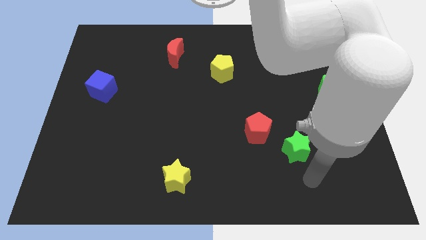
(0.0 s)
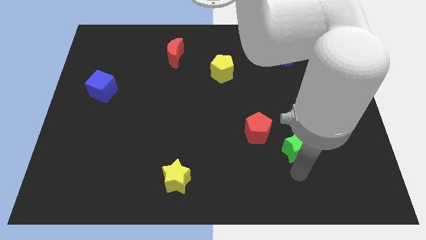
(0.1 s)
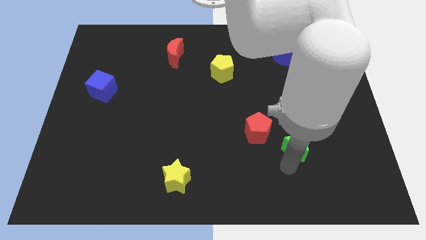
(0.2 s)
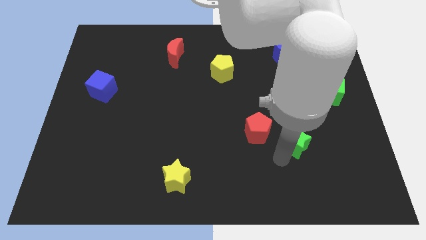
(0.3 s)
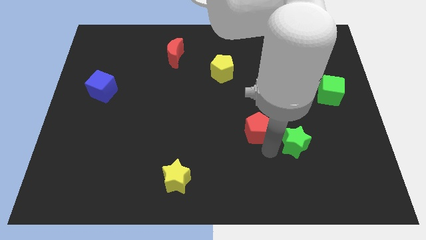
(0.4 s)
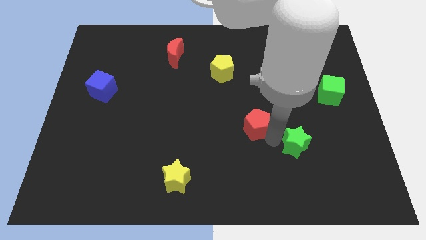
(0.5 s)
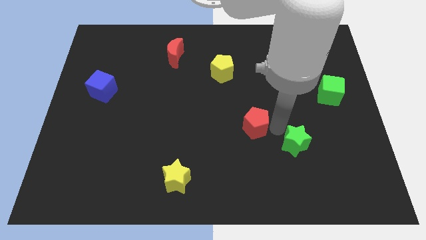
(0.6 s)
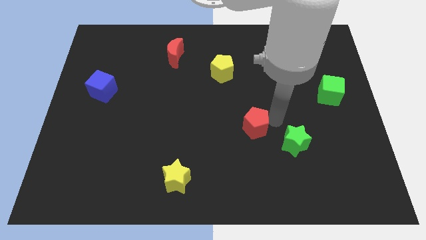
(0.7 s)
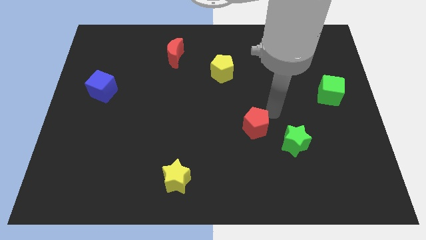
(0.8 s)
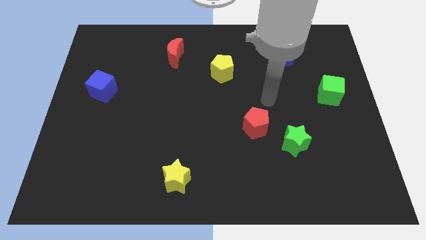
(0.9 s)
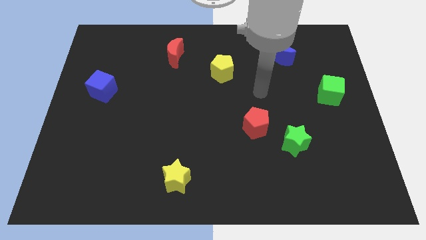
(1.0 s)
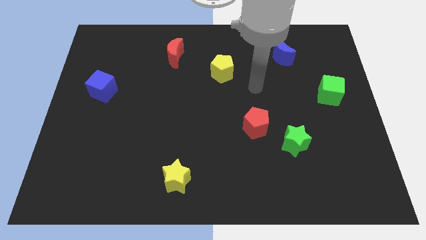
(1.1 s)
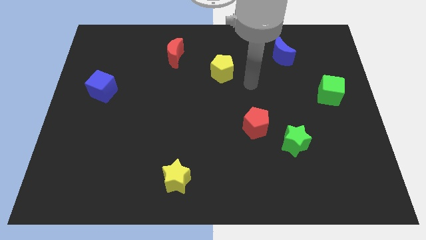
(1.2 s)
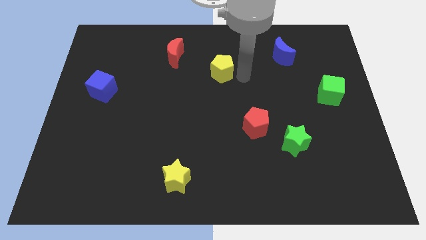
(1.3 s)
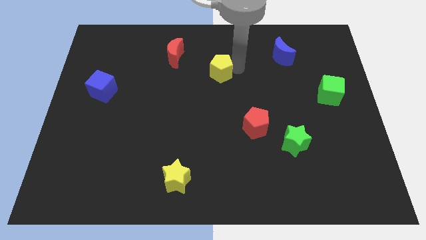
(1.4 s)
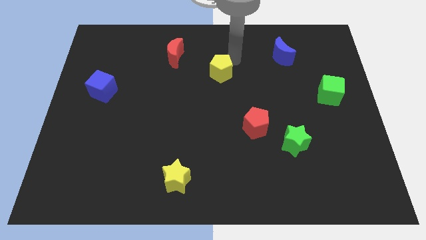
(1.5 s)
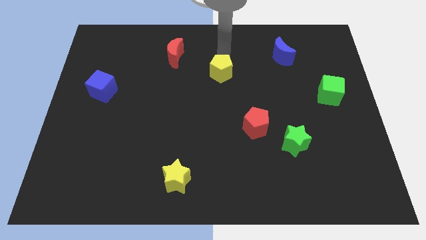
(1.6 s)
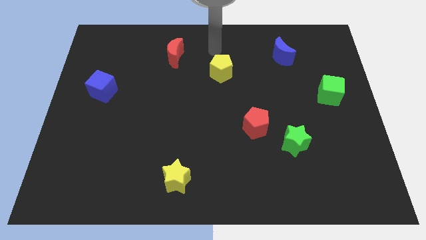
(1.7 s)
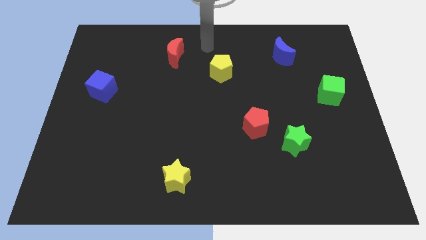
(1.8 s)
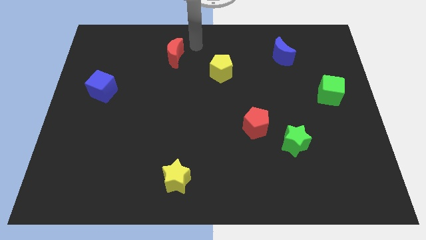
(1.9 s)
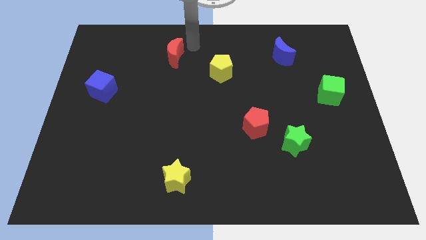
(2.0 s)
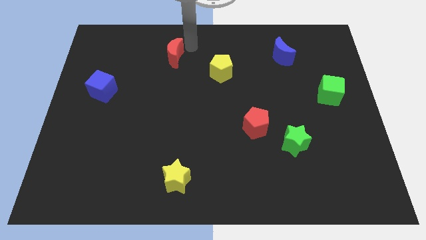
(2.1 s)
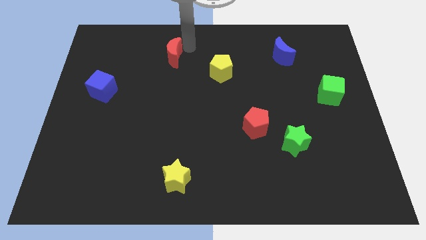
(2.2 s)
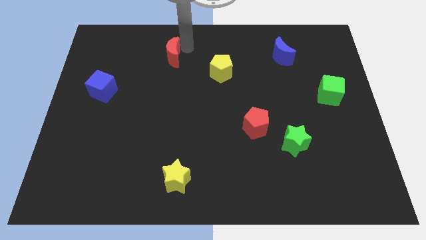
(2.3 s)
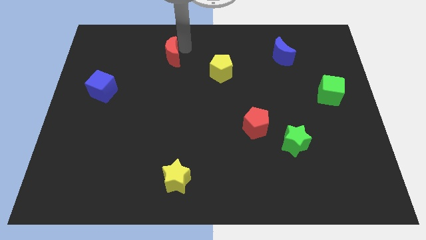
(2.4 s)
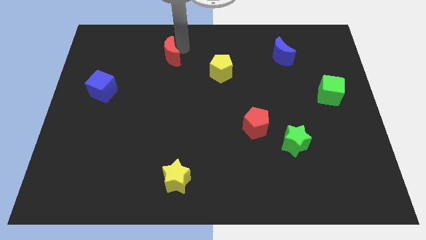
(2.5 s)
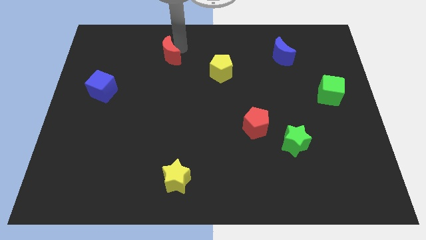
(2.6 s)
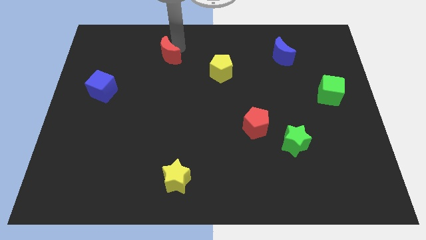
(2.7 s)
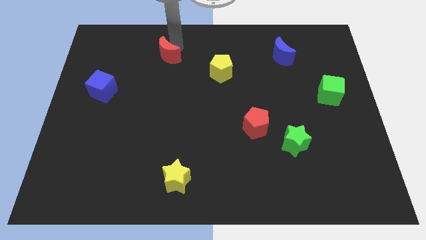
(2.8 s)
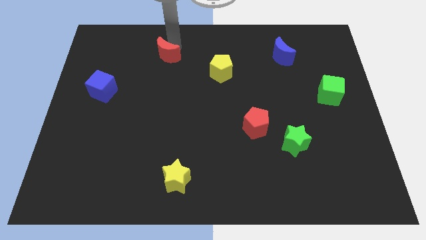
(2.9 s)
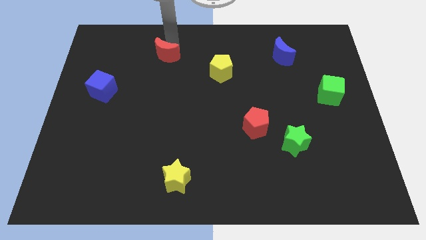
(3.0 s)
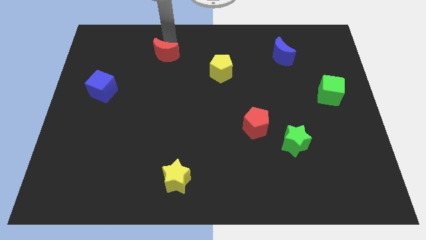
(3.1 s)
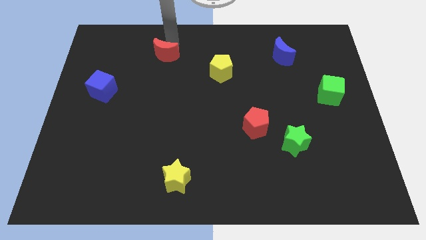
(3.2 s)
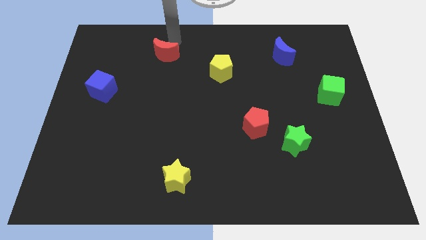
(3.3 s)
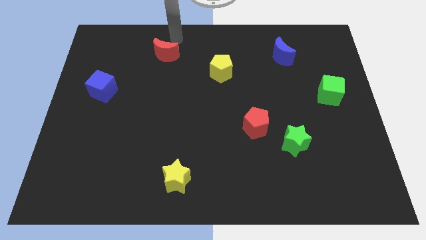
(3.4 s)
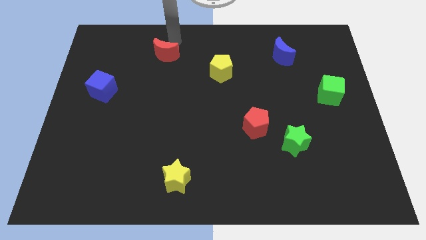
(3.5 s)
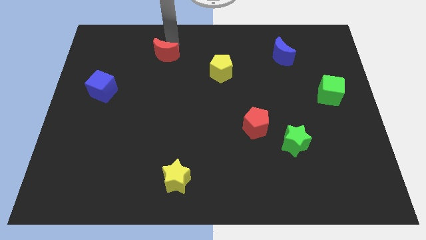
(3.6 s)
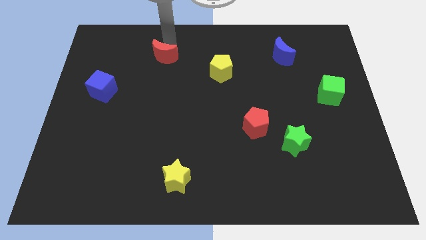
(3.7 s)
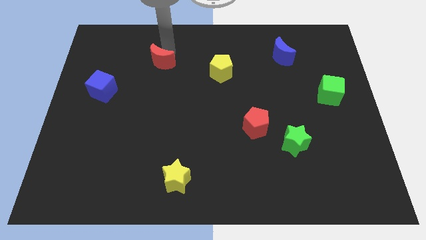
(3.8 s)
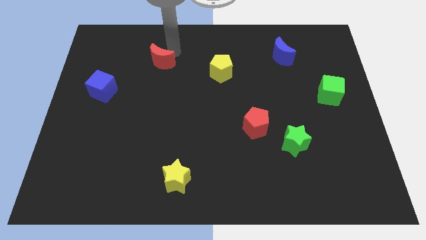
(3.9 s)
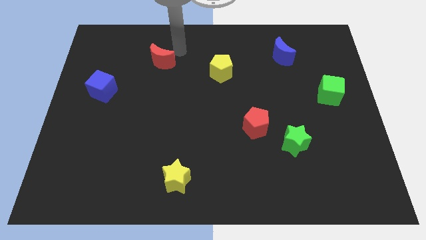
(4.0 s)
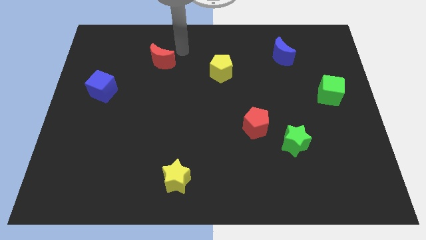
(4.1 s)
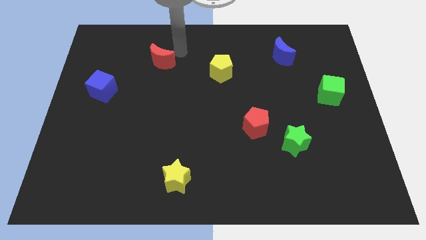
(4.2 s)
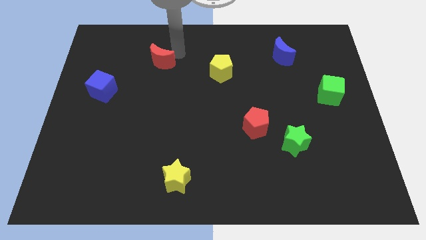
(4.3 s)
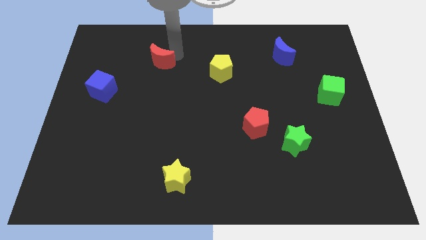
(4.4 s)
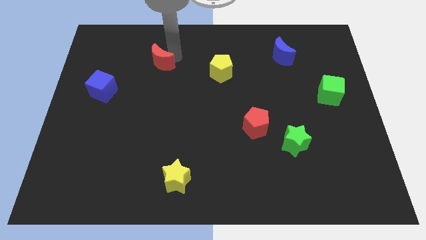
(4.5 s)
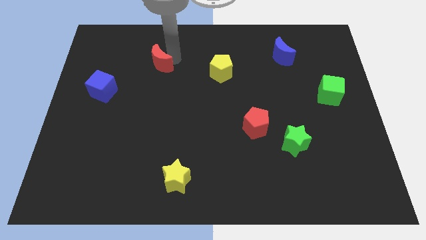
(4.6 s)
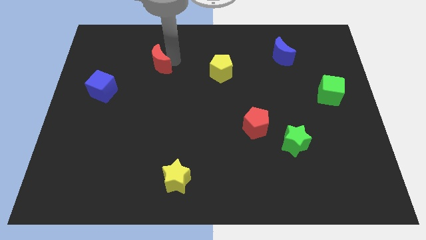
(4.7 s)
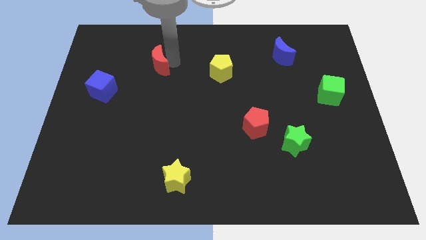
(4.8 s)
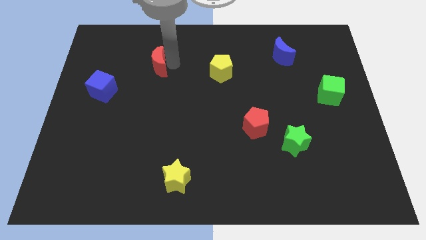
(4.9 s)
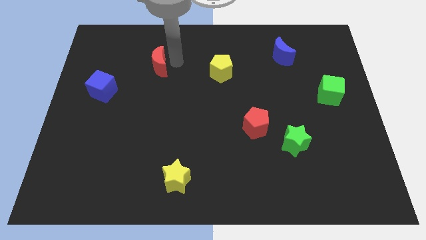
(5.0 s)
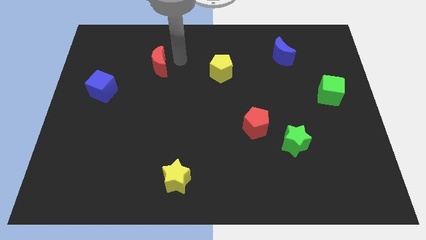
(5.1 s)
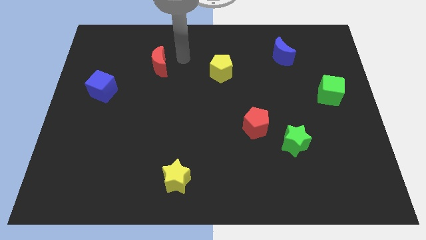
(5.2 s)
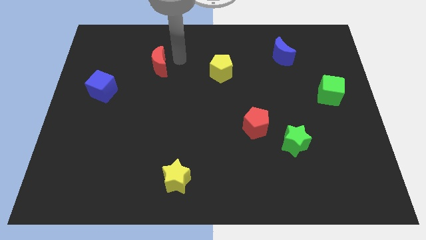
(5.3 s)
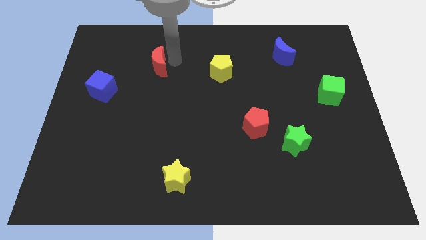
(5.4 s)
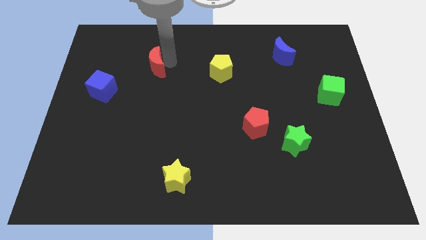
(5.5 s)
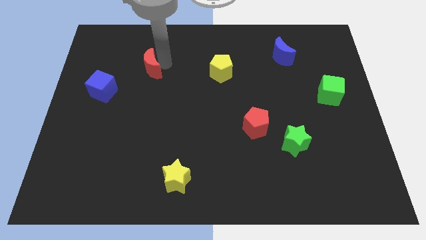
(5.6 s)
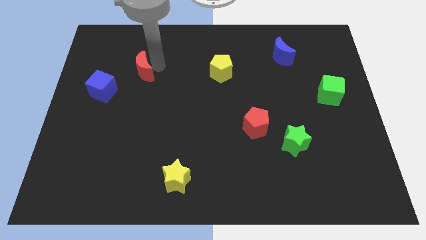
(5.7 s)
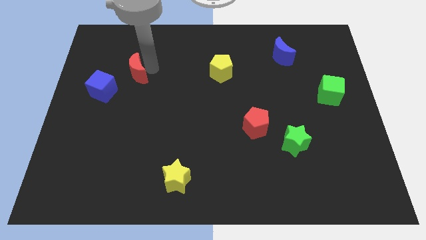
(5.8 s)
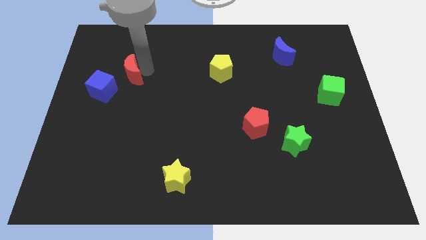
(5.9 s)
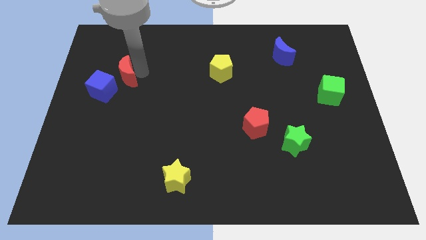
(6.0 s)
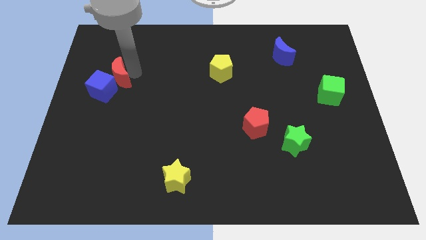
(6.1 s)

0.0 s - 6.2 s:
slide the red moon close to the blue cube

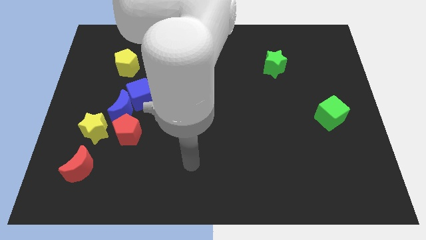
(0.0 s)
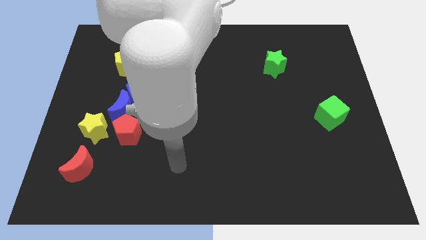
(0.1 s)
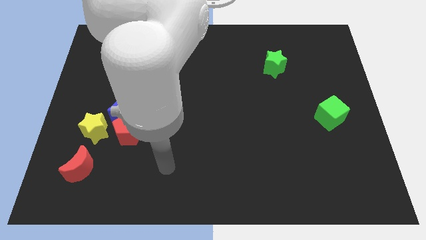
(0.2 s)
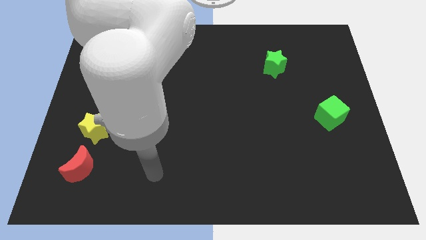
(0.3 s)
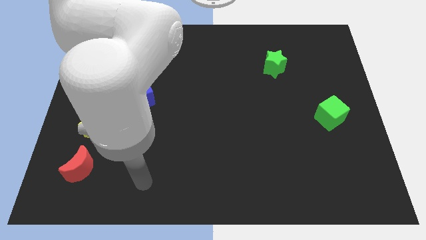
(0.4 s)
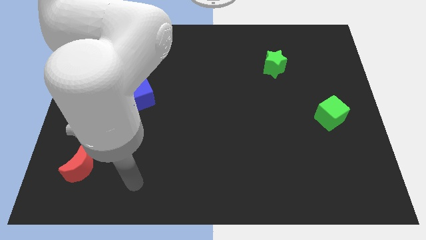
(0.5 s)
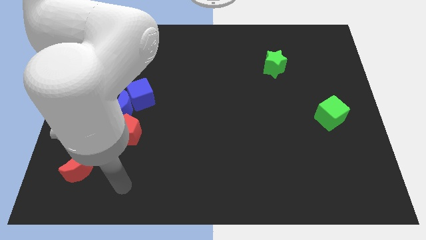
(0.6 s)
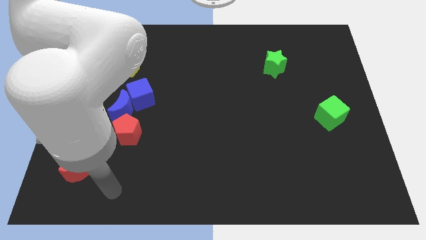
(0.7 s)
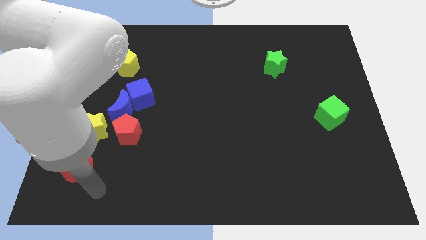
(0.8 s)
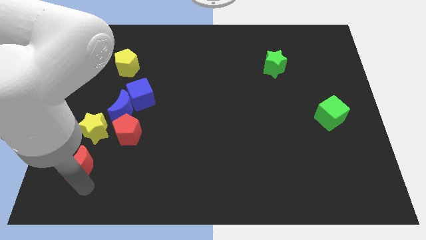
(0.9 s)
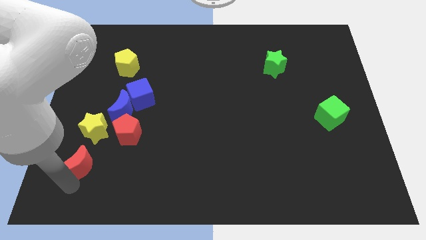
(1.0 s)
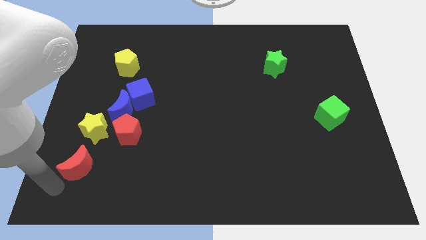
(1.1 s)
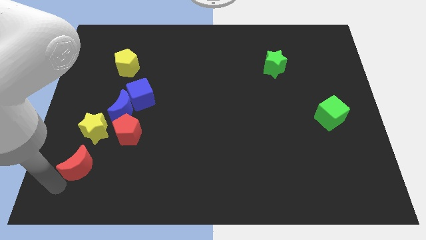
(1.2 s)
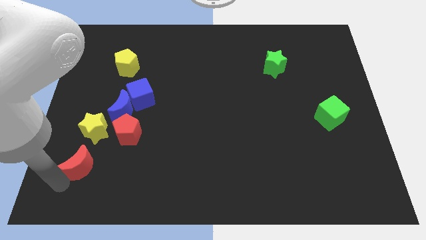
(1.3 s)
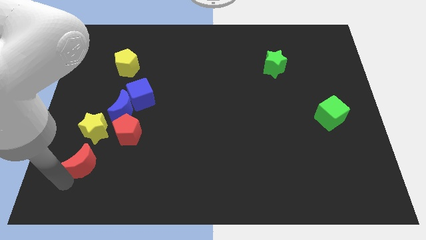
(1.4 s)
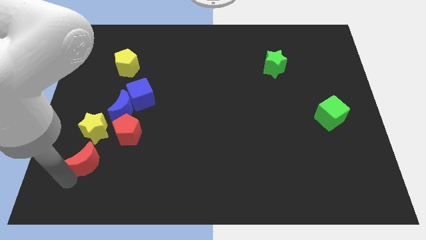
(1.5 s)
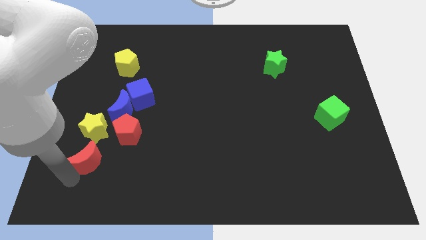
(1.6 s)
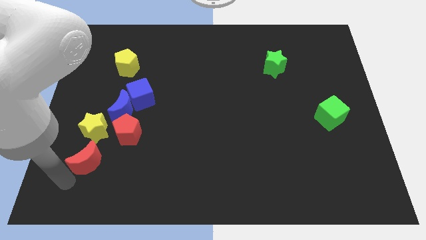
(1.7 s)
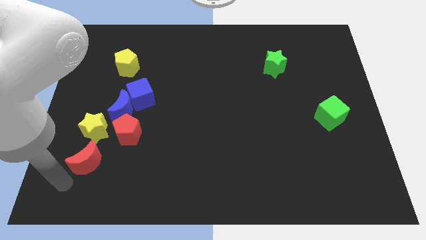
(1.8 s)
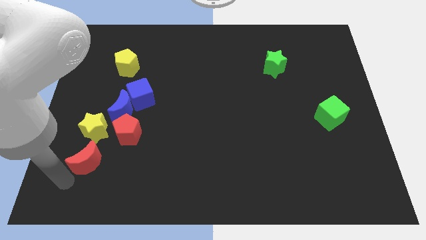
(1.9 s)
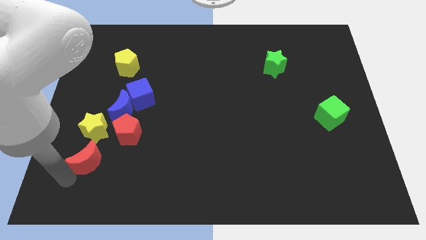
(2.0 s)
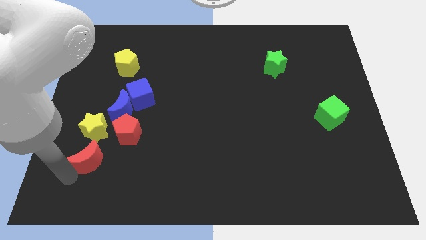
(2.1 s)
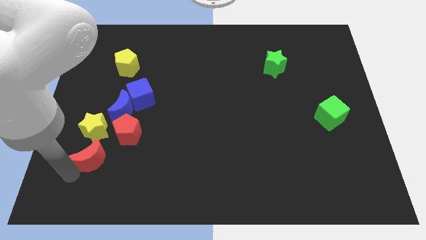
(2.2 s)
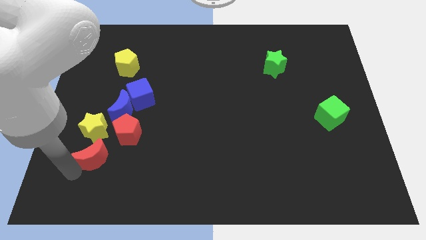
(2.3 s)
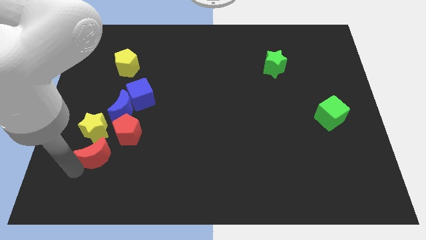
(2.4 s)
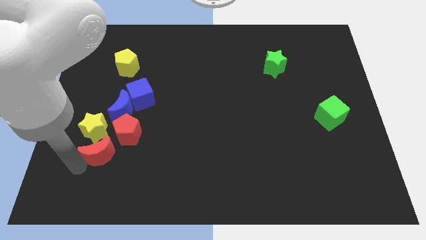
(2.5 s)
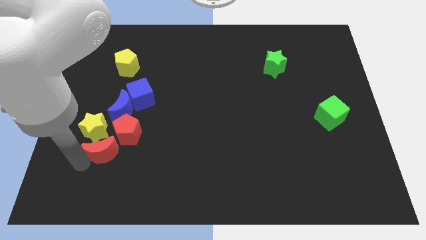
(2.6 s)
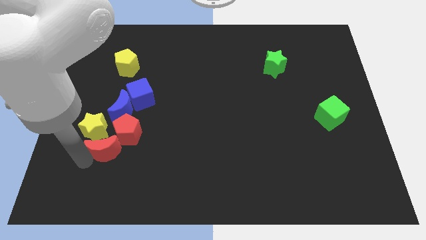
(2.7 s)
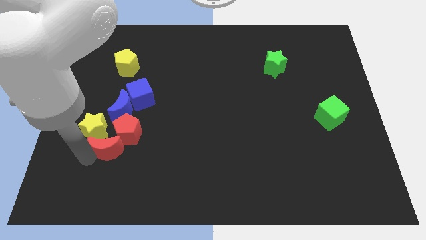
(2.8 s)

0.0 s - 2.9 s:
push the red moon close to the red pentagon
